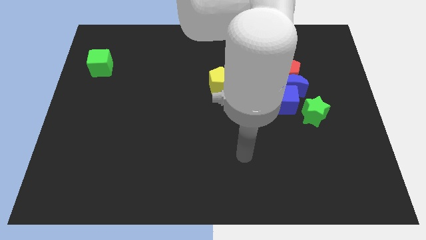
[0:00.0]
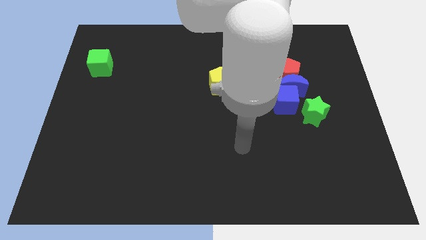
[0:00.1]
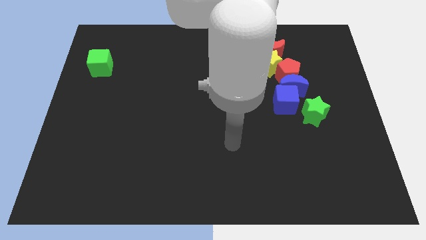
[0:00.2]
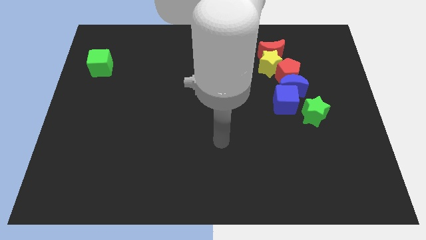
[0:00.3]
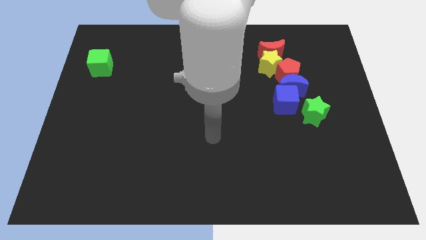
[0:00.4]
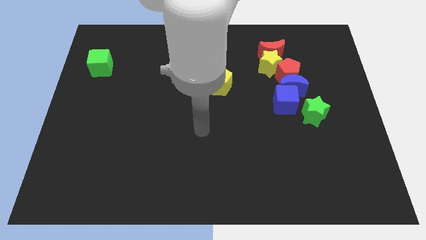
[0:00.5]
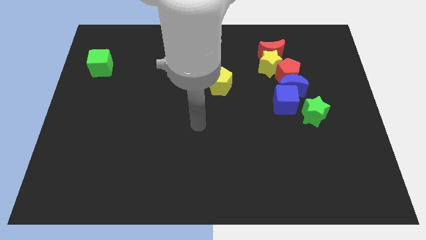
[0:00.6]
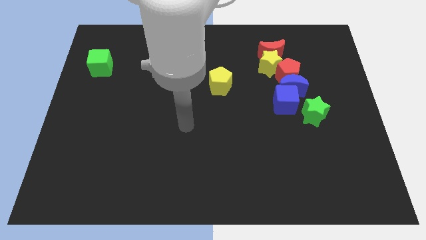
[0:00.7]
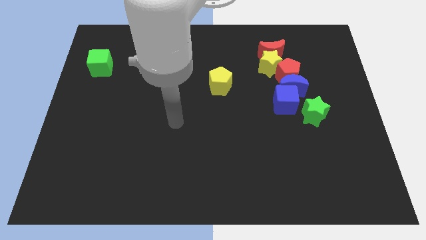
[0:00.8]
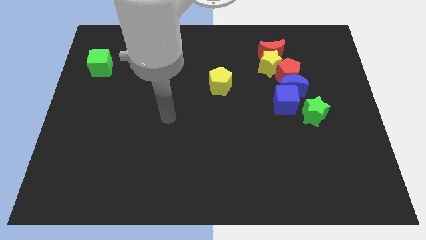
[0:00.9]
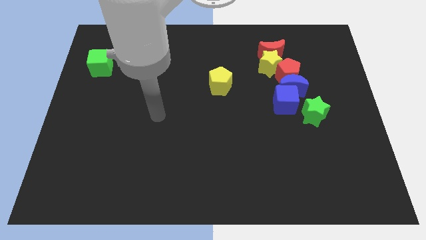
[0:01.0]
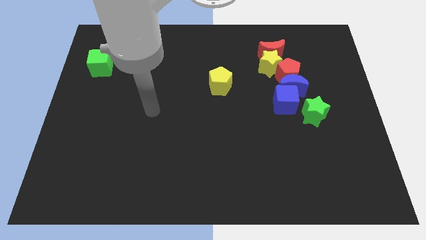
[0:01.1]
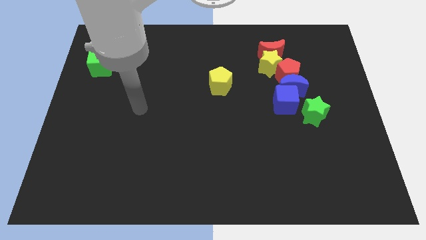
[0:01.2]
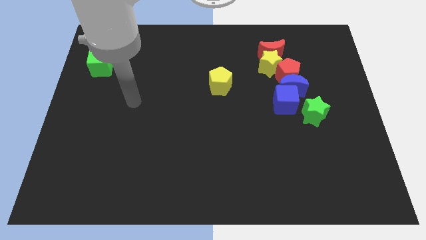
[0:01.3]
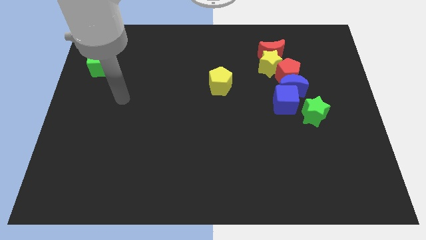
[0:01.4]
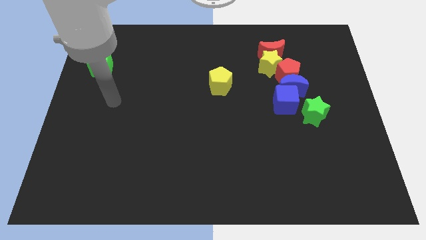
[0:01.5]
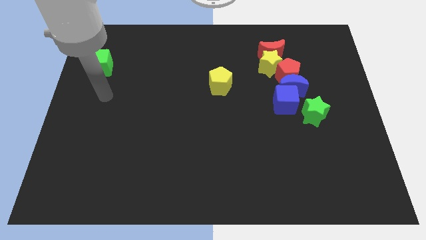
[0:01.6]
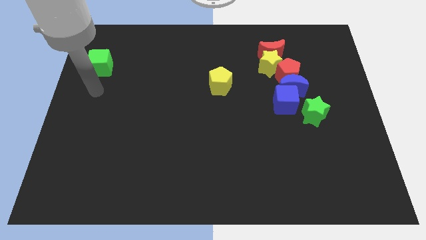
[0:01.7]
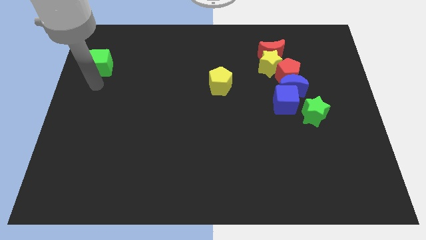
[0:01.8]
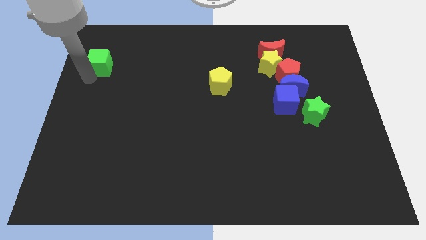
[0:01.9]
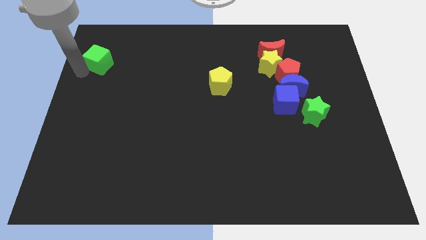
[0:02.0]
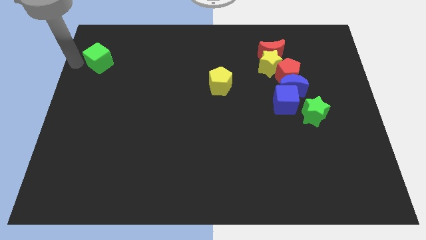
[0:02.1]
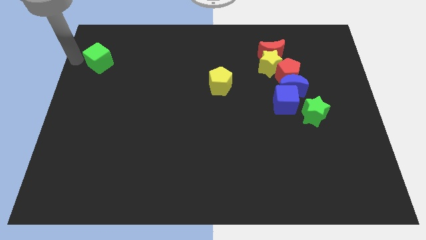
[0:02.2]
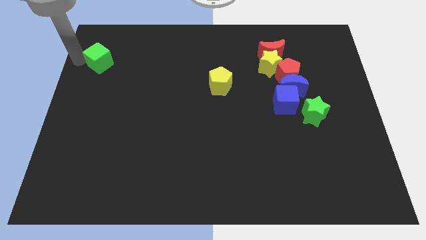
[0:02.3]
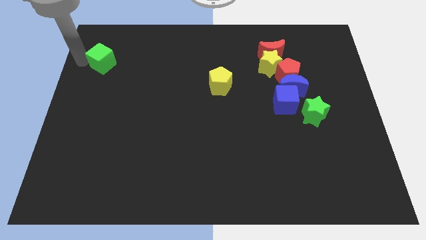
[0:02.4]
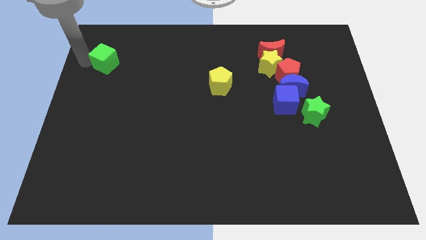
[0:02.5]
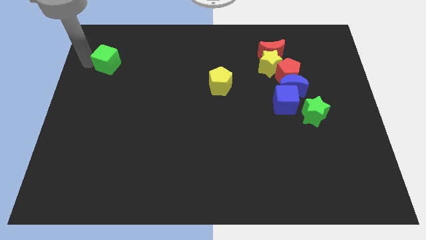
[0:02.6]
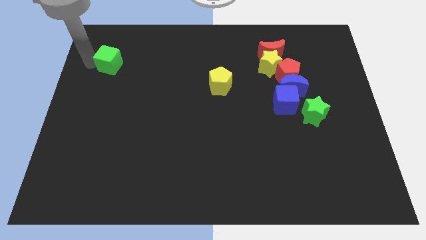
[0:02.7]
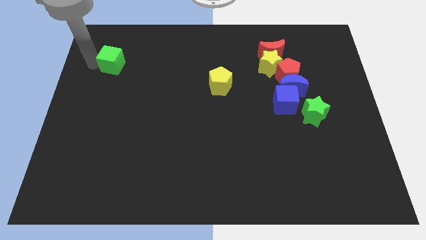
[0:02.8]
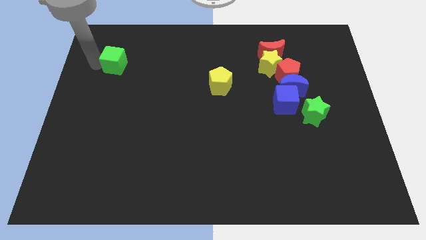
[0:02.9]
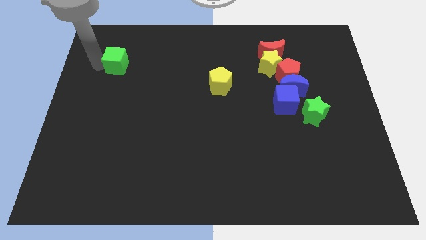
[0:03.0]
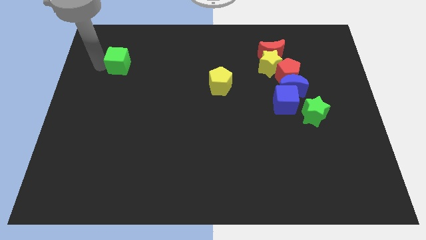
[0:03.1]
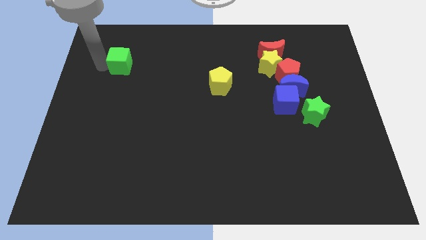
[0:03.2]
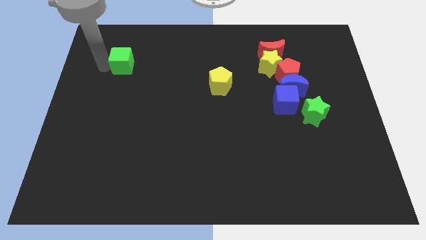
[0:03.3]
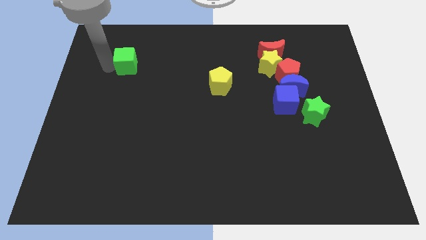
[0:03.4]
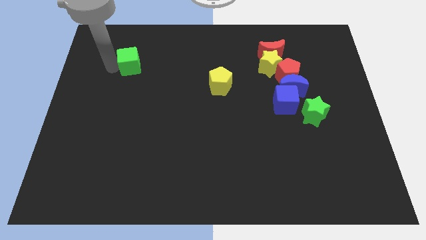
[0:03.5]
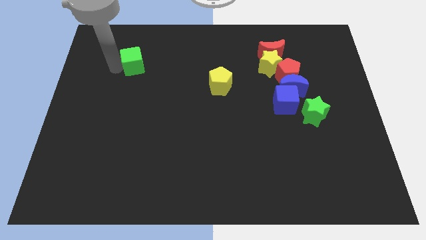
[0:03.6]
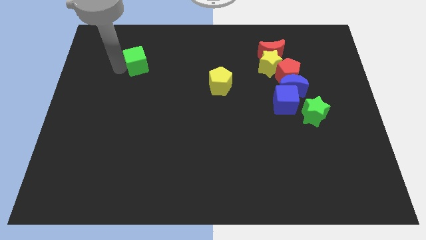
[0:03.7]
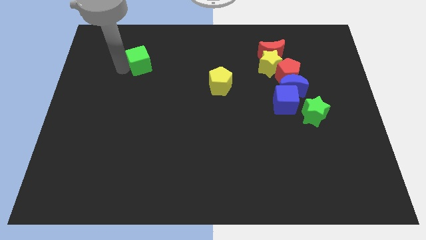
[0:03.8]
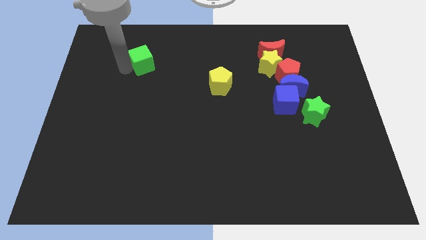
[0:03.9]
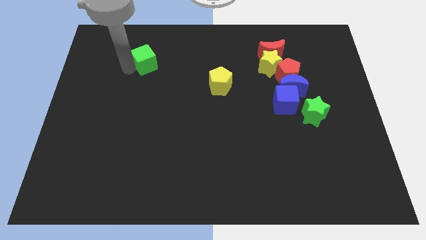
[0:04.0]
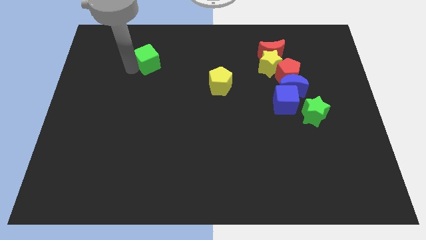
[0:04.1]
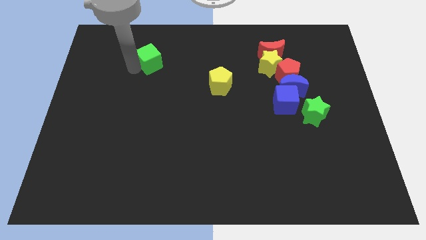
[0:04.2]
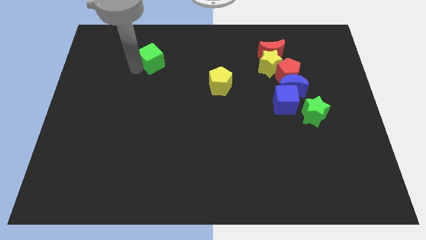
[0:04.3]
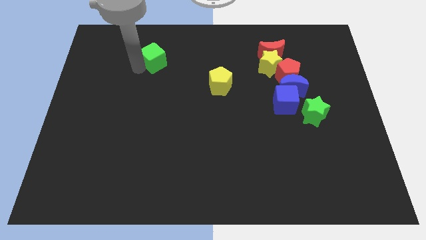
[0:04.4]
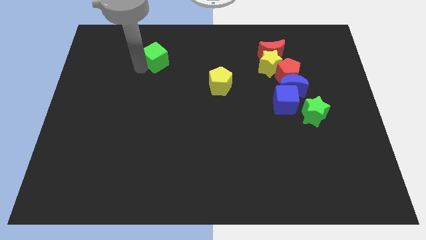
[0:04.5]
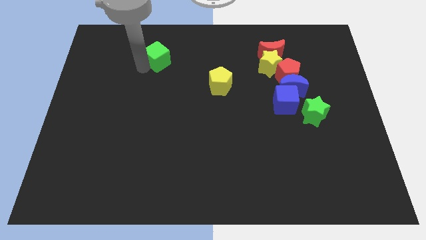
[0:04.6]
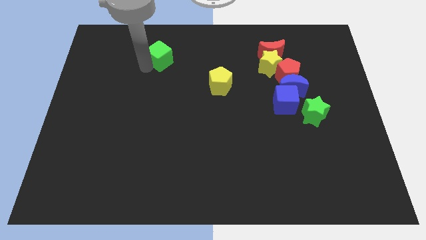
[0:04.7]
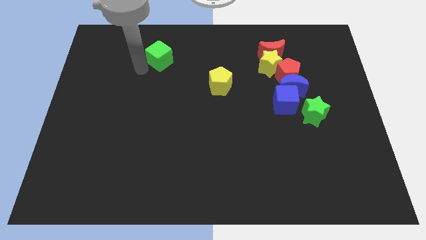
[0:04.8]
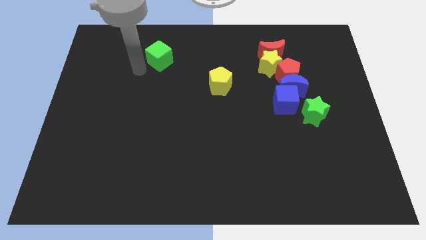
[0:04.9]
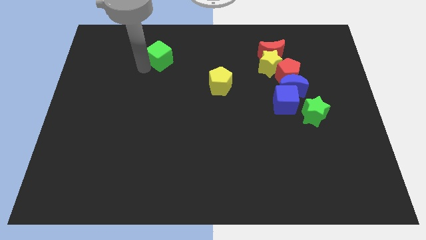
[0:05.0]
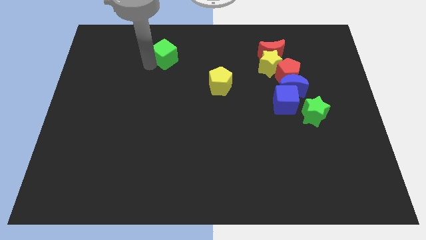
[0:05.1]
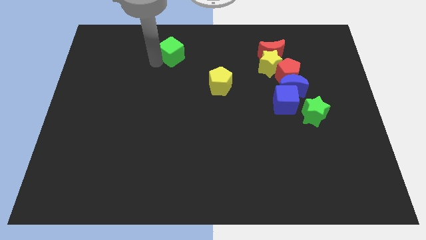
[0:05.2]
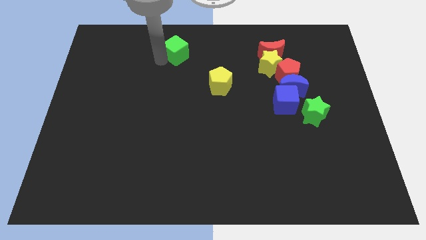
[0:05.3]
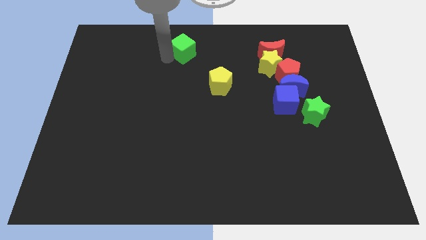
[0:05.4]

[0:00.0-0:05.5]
slide the green cube to the top side

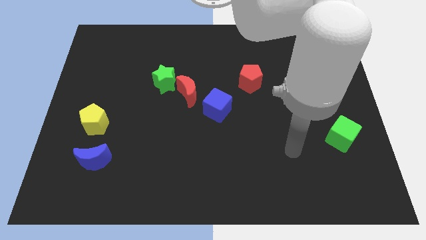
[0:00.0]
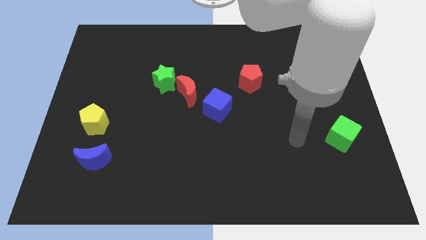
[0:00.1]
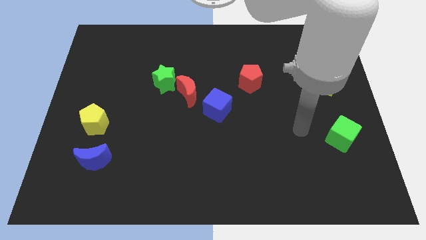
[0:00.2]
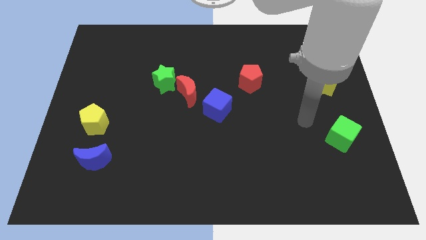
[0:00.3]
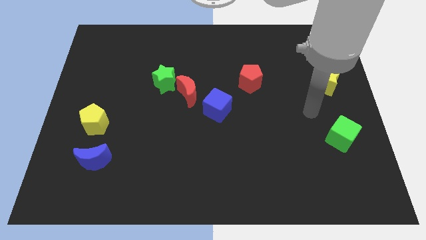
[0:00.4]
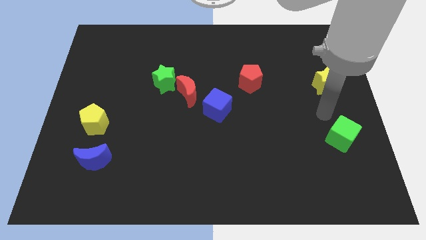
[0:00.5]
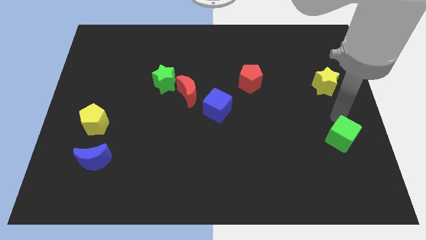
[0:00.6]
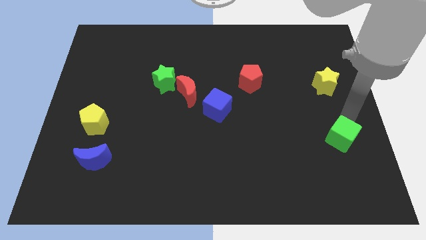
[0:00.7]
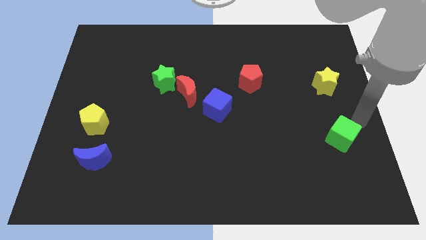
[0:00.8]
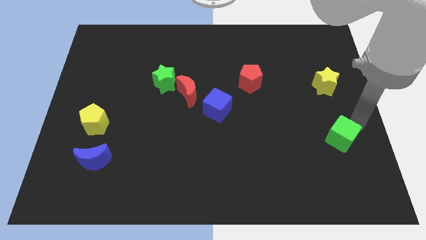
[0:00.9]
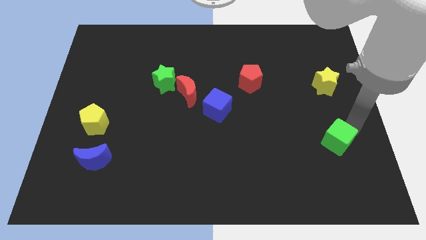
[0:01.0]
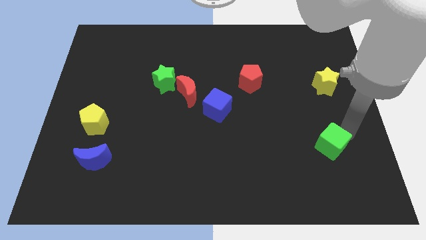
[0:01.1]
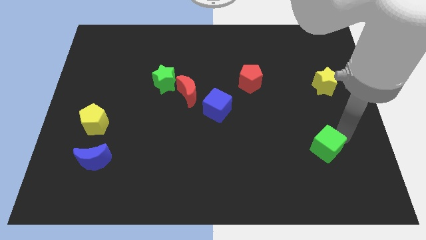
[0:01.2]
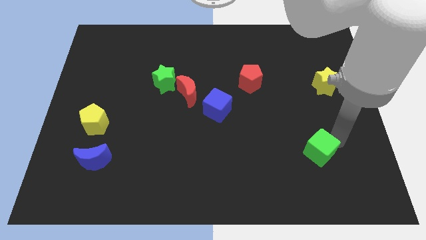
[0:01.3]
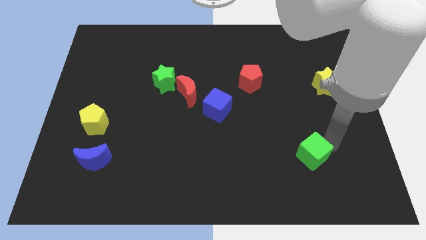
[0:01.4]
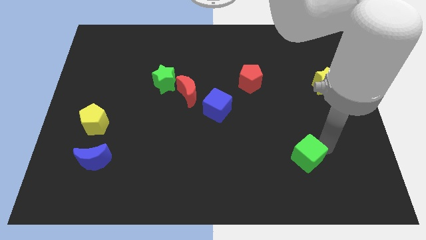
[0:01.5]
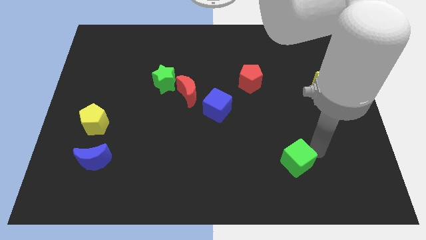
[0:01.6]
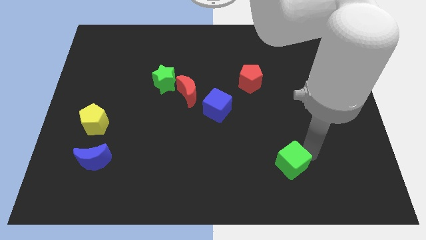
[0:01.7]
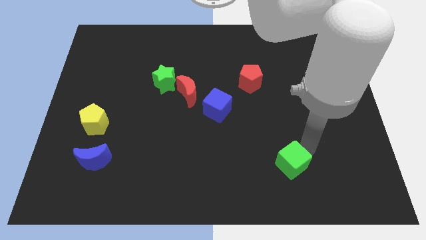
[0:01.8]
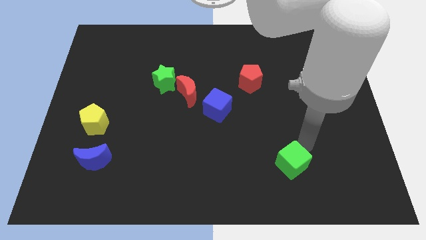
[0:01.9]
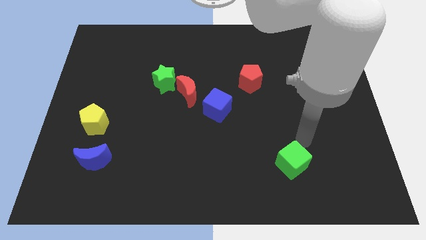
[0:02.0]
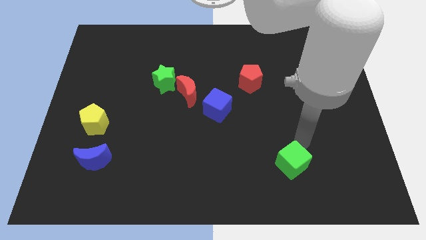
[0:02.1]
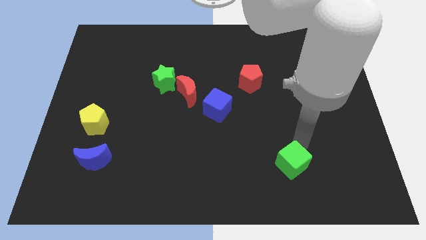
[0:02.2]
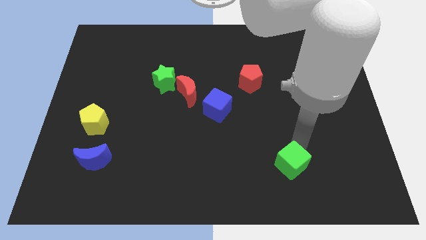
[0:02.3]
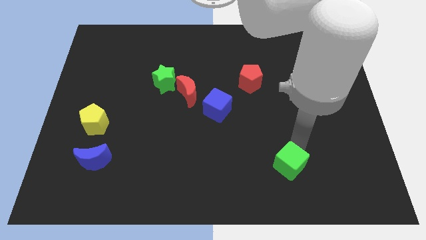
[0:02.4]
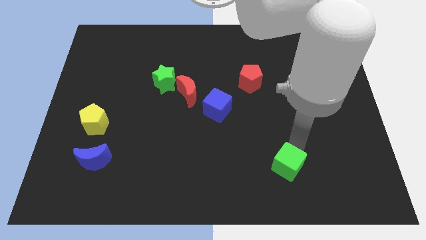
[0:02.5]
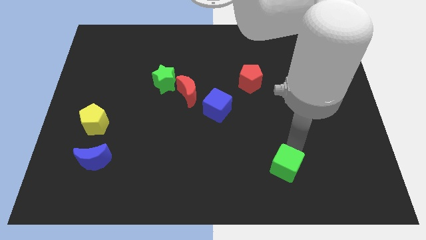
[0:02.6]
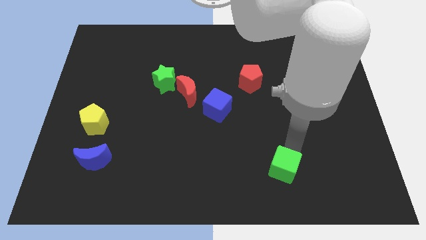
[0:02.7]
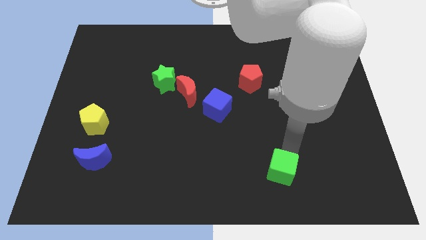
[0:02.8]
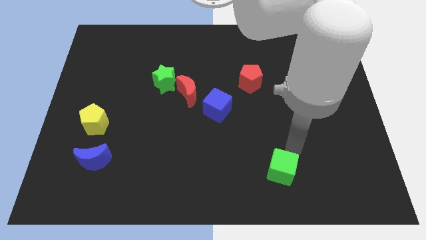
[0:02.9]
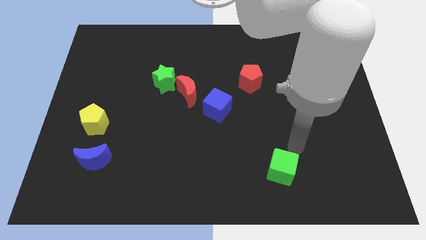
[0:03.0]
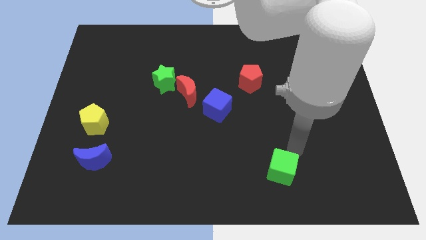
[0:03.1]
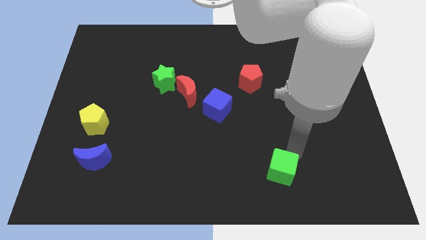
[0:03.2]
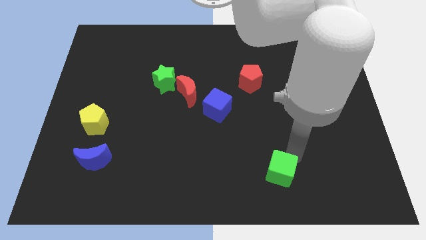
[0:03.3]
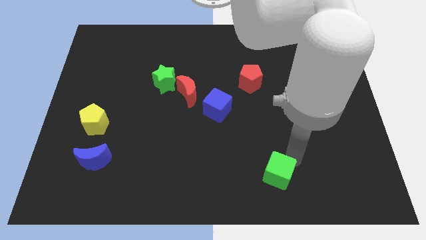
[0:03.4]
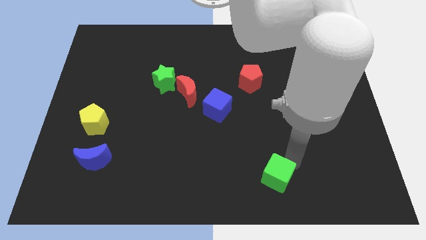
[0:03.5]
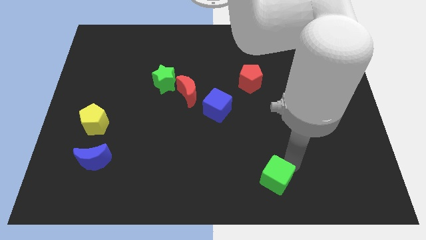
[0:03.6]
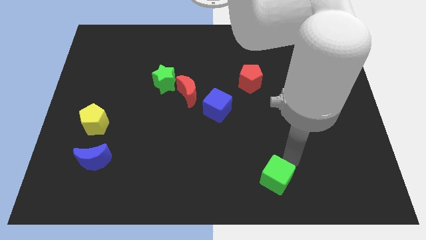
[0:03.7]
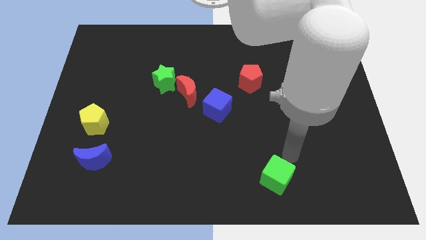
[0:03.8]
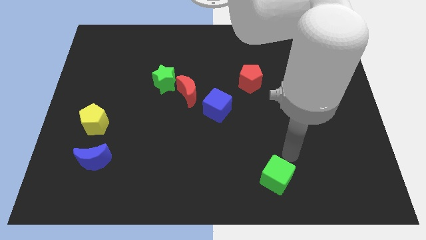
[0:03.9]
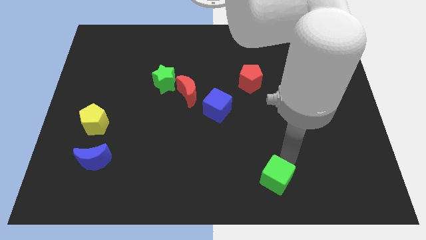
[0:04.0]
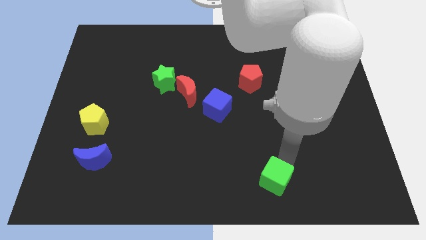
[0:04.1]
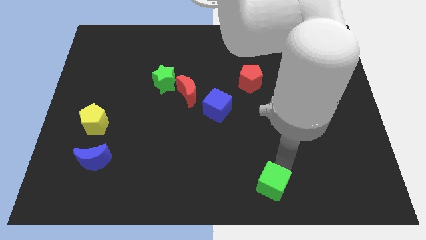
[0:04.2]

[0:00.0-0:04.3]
push the green cube to the bottom
